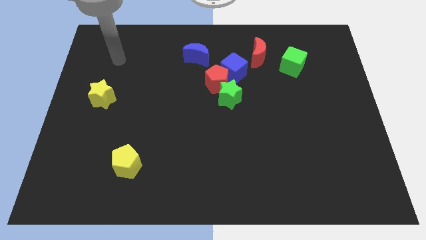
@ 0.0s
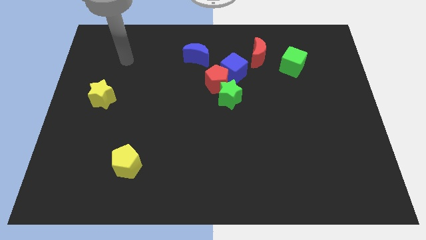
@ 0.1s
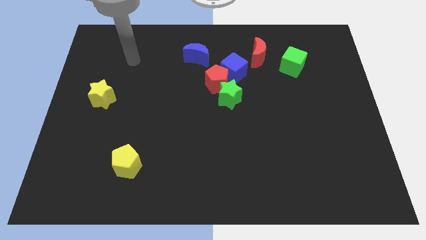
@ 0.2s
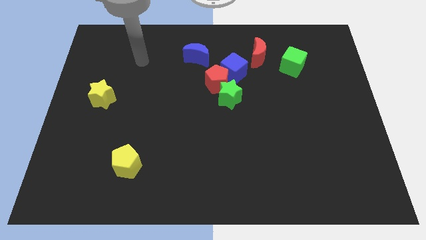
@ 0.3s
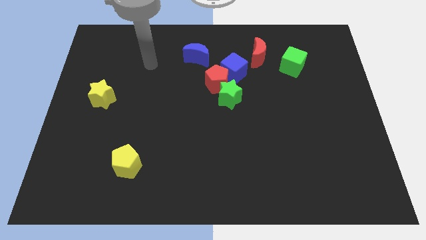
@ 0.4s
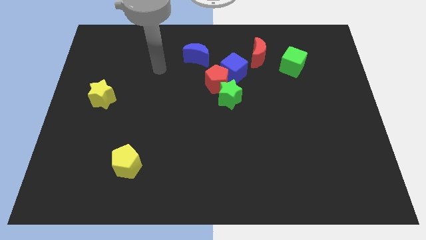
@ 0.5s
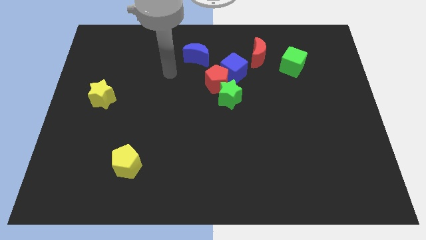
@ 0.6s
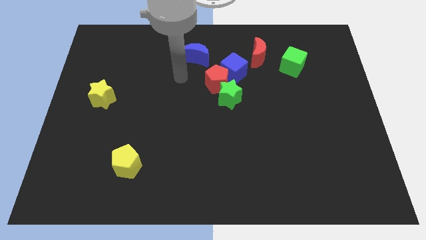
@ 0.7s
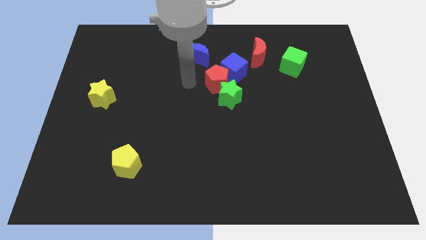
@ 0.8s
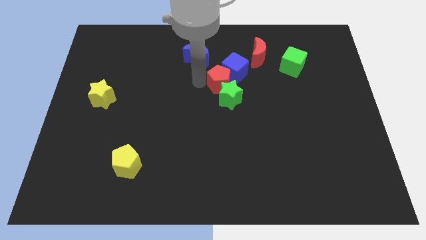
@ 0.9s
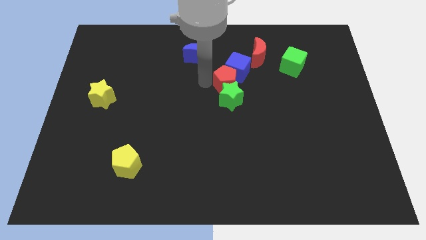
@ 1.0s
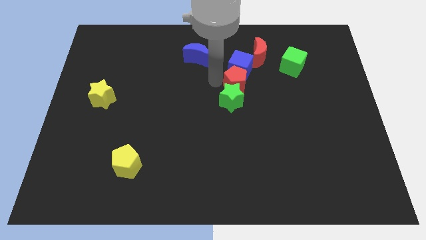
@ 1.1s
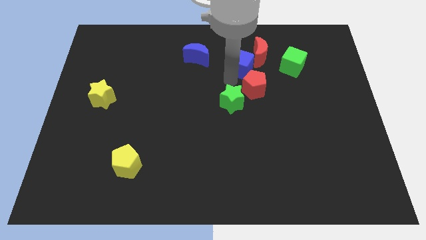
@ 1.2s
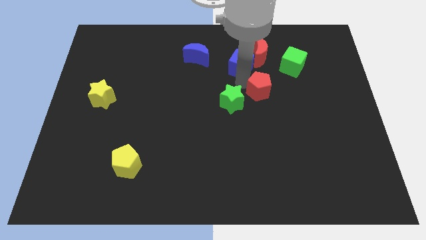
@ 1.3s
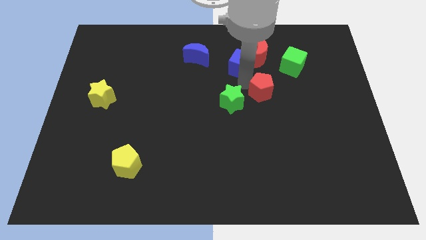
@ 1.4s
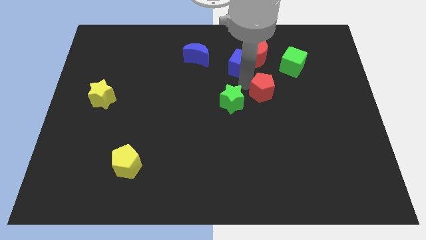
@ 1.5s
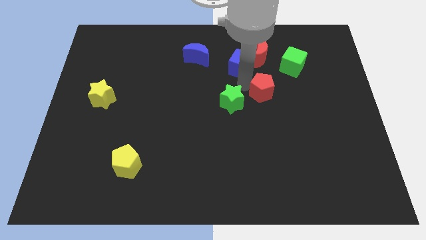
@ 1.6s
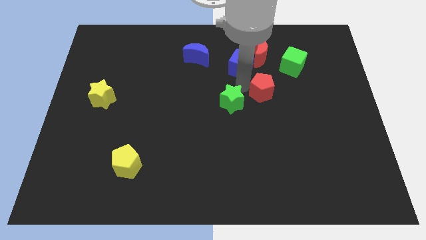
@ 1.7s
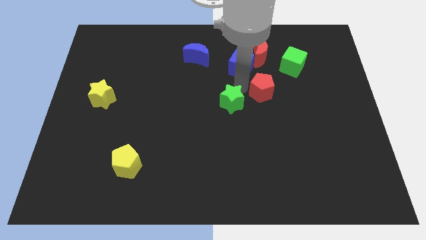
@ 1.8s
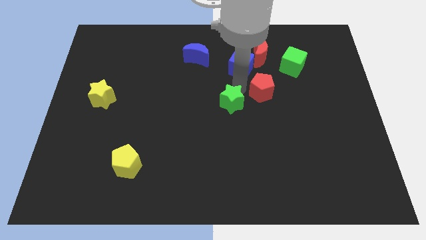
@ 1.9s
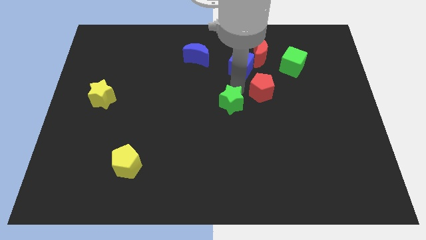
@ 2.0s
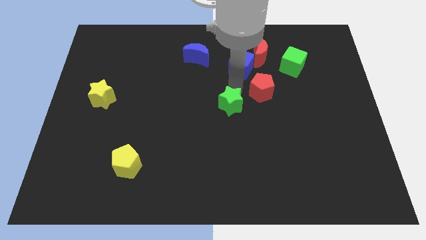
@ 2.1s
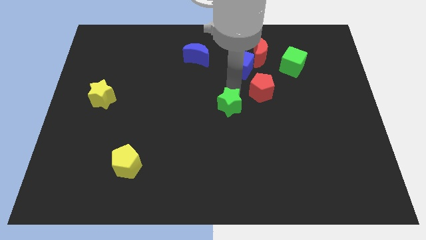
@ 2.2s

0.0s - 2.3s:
separate the green star from the red pentagon and blue cube

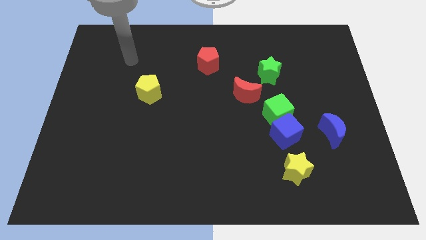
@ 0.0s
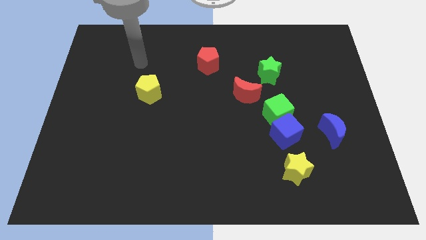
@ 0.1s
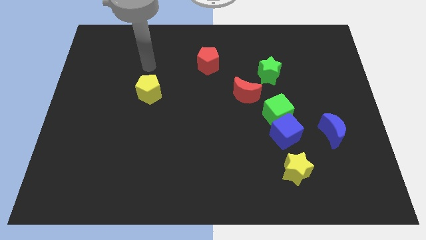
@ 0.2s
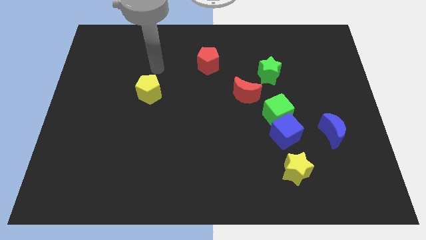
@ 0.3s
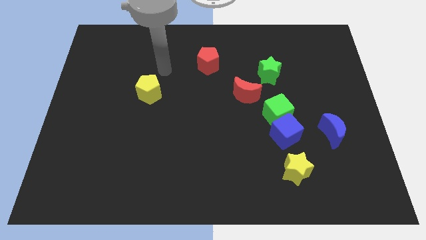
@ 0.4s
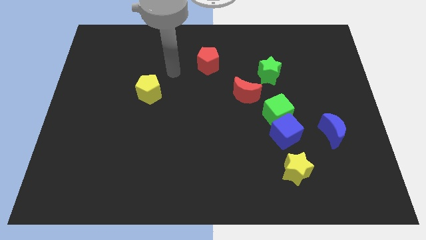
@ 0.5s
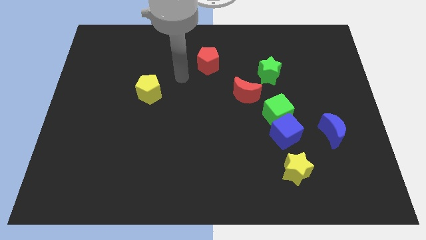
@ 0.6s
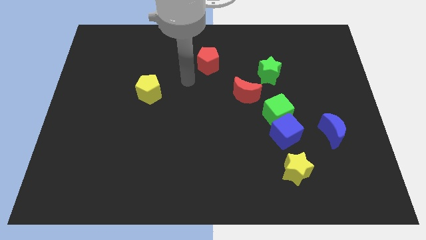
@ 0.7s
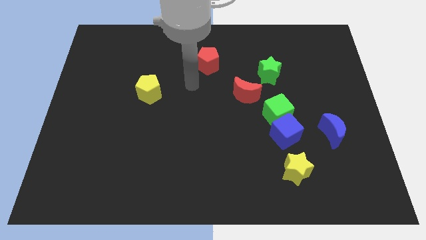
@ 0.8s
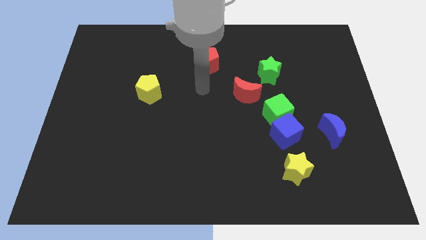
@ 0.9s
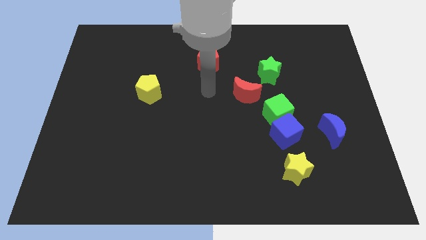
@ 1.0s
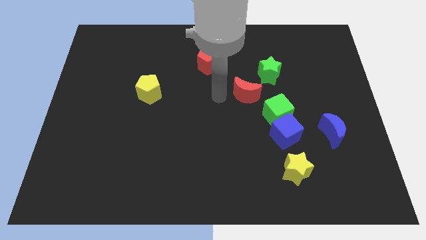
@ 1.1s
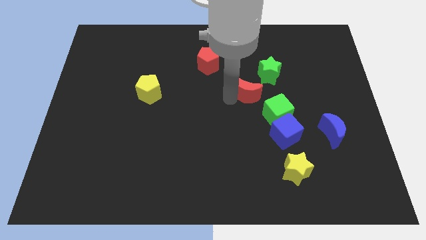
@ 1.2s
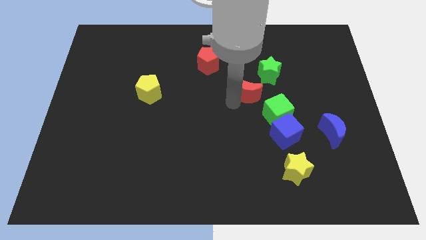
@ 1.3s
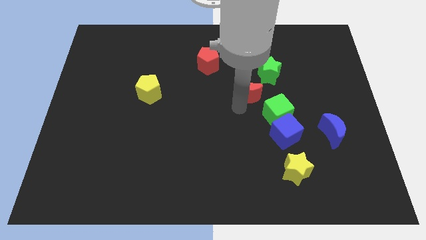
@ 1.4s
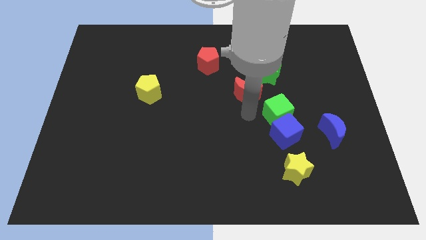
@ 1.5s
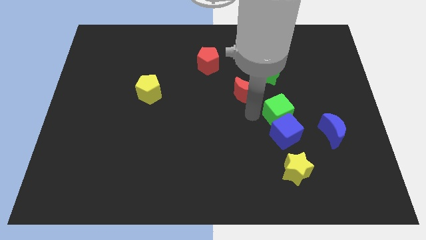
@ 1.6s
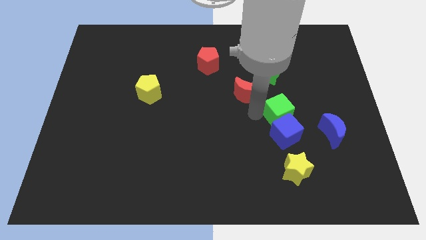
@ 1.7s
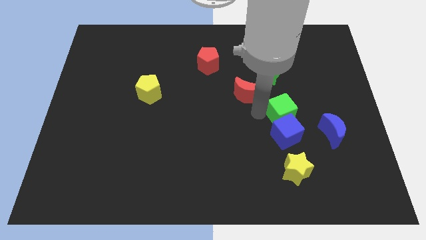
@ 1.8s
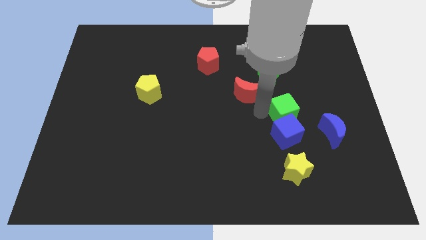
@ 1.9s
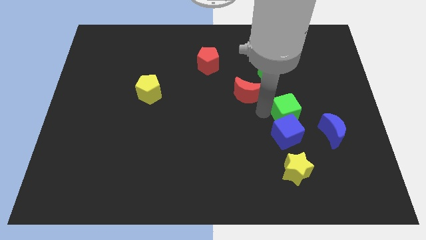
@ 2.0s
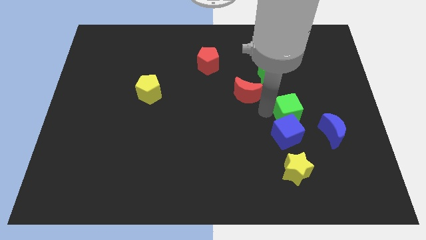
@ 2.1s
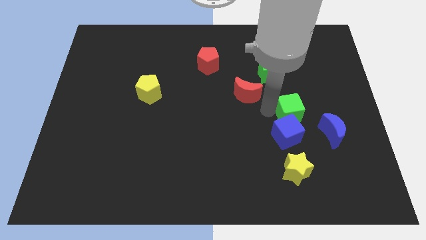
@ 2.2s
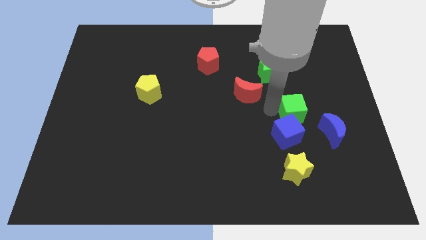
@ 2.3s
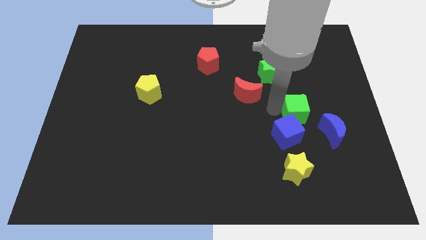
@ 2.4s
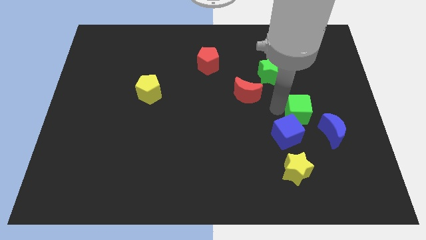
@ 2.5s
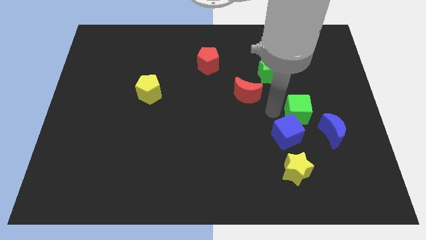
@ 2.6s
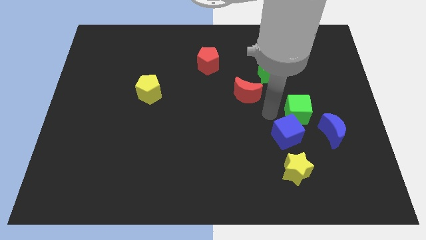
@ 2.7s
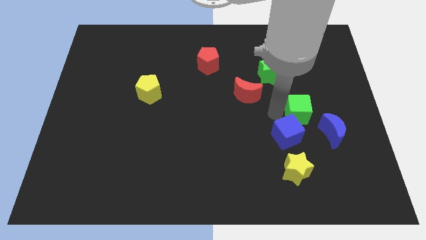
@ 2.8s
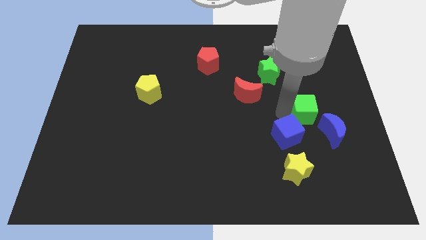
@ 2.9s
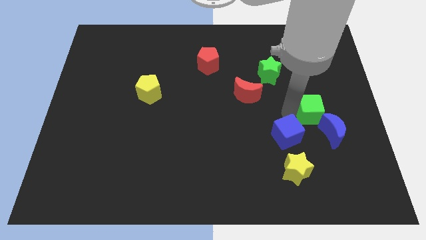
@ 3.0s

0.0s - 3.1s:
separate the green cube from the blue cube and red moon

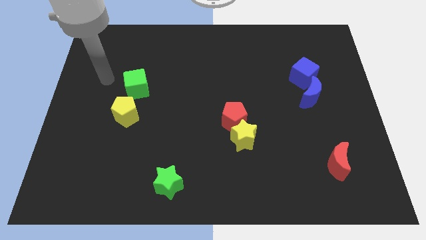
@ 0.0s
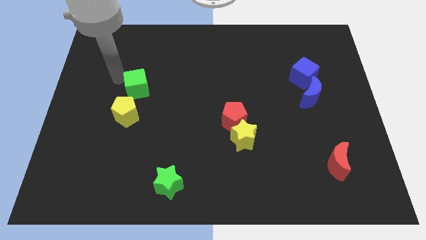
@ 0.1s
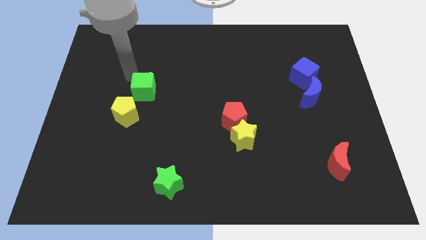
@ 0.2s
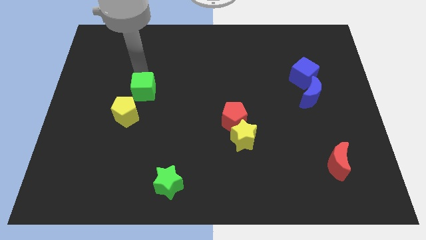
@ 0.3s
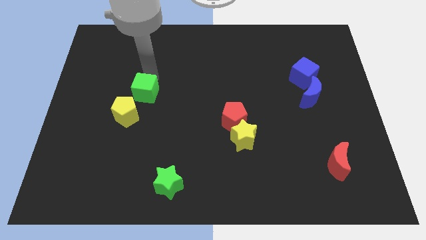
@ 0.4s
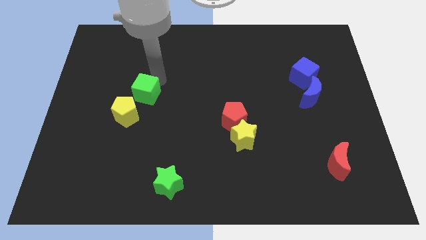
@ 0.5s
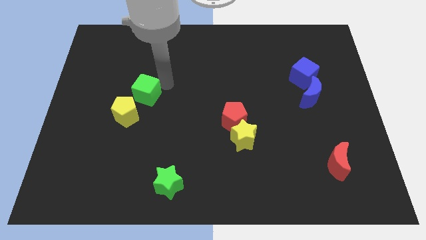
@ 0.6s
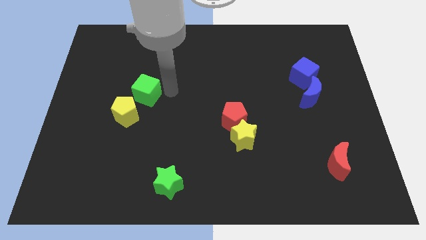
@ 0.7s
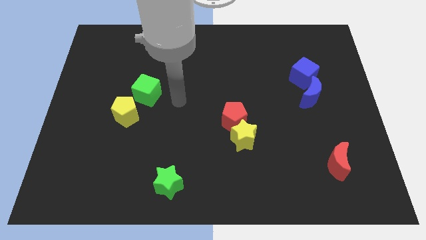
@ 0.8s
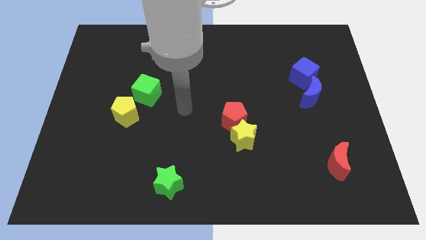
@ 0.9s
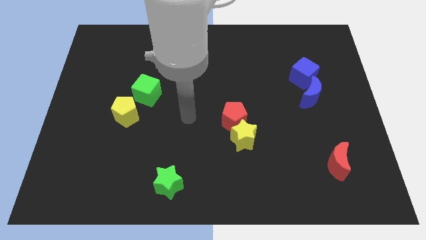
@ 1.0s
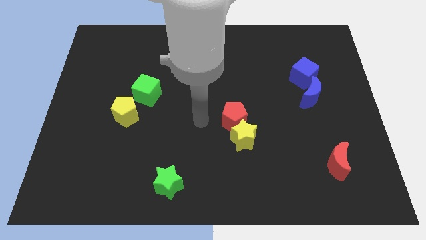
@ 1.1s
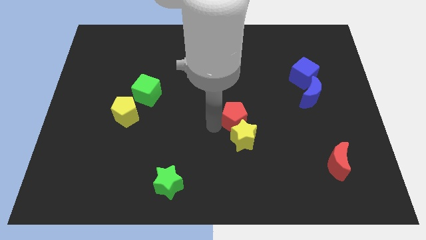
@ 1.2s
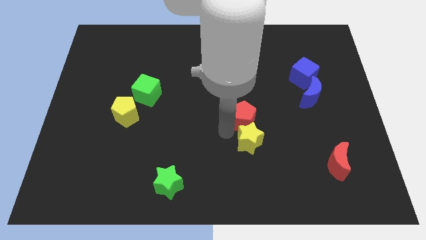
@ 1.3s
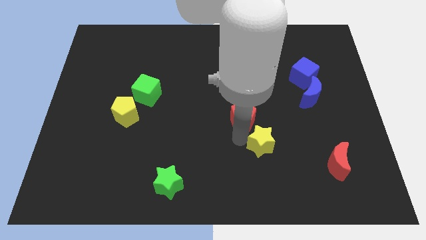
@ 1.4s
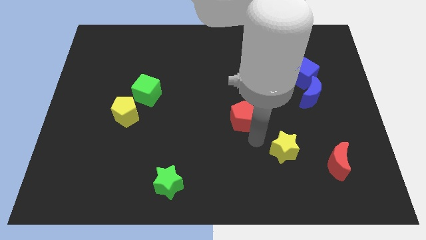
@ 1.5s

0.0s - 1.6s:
separate the red pentagon from the yellow star

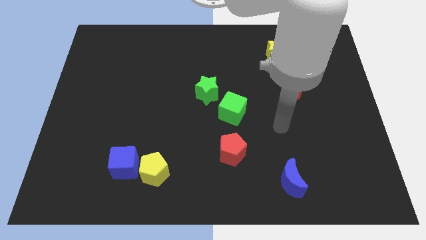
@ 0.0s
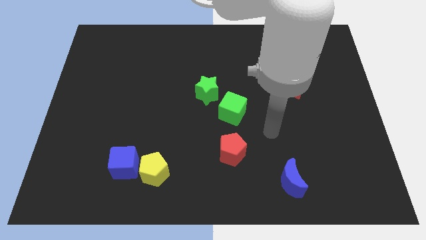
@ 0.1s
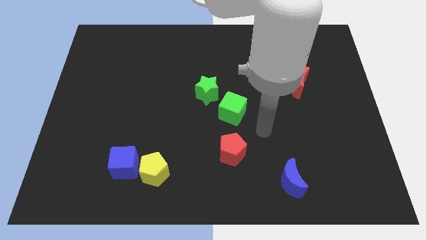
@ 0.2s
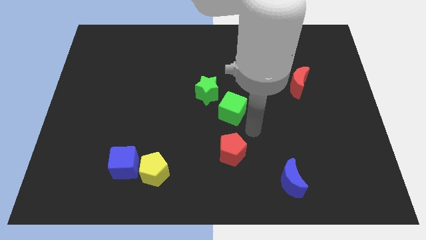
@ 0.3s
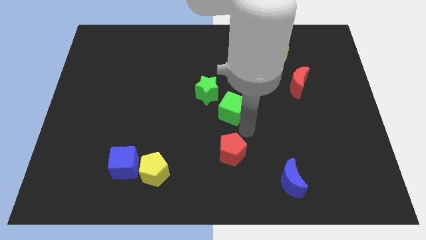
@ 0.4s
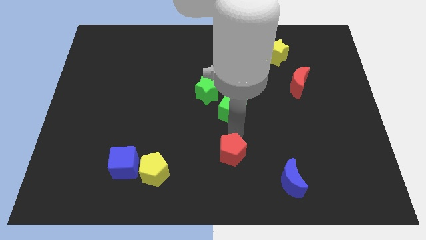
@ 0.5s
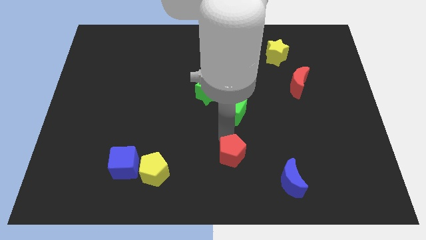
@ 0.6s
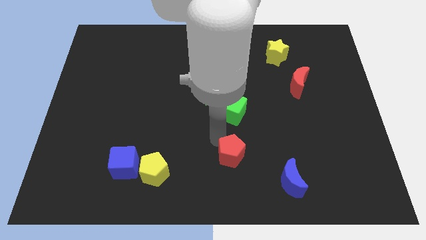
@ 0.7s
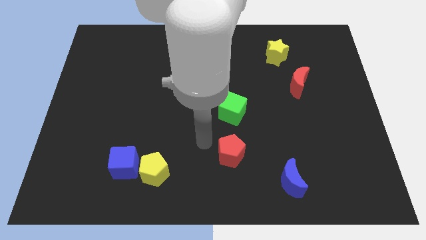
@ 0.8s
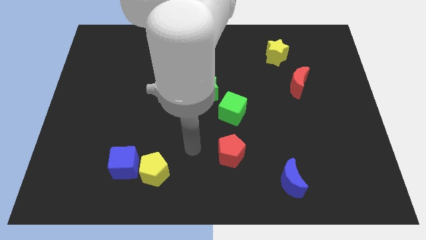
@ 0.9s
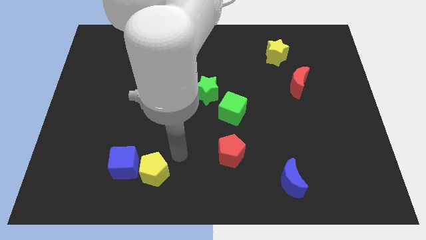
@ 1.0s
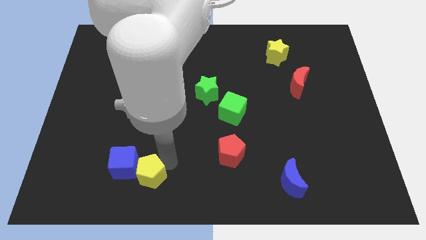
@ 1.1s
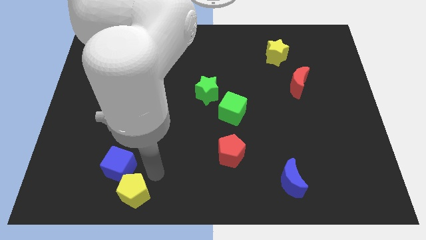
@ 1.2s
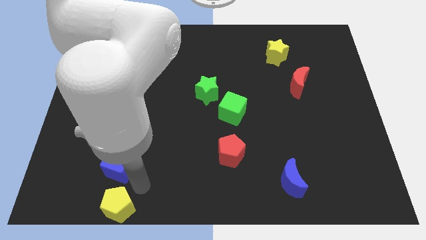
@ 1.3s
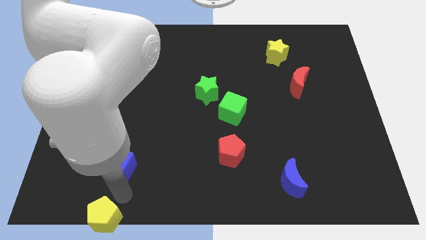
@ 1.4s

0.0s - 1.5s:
pull the blue cube apart from the yellow pentagon

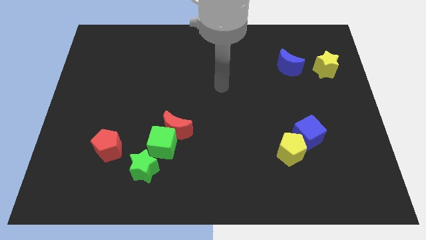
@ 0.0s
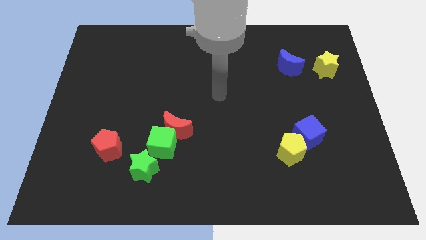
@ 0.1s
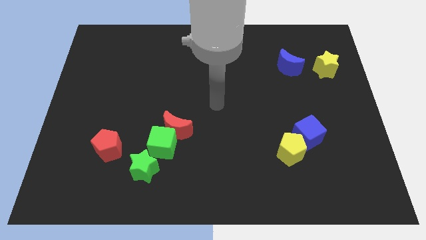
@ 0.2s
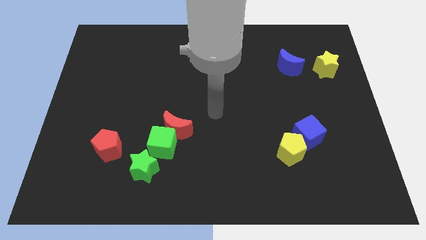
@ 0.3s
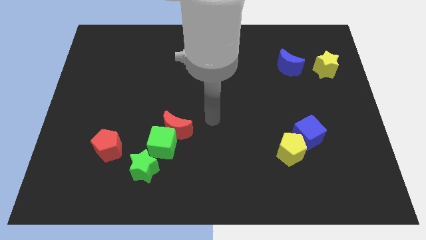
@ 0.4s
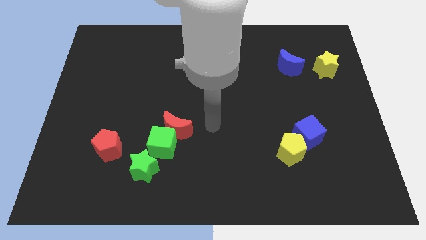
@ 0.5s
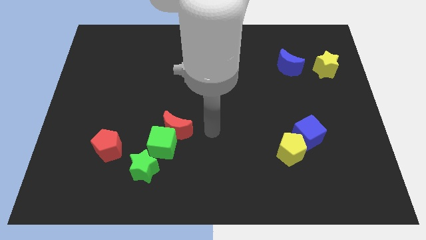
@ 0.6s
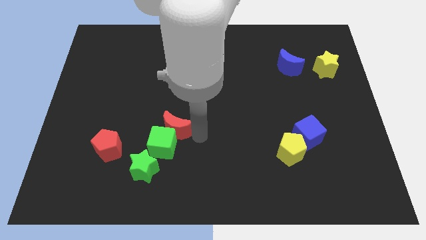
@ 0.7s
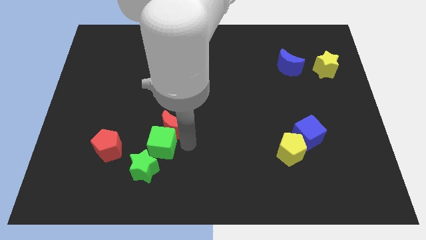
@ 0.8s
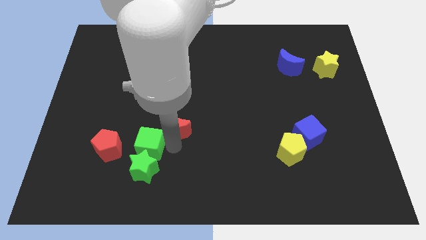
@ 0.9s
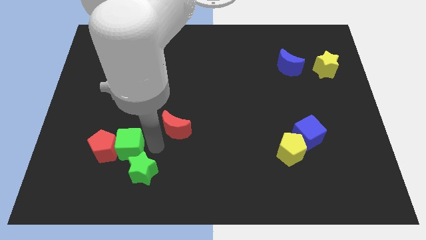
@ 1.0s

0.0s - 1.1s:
separate the red moon from the green cube
